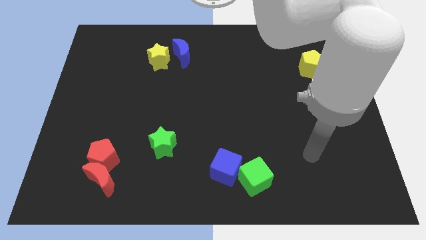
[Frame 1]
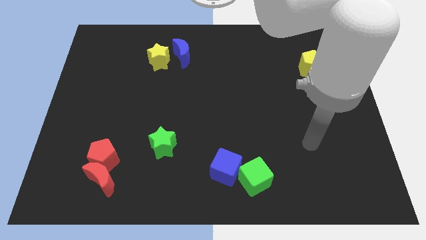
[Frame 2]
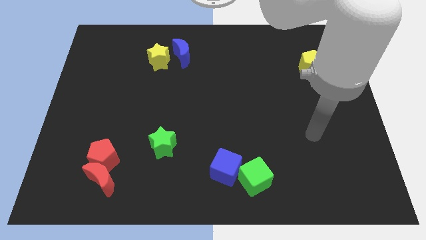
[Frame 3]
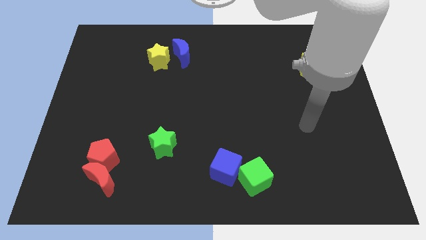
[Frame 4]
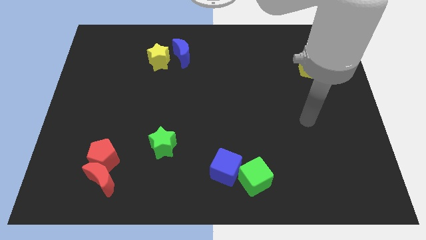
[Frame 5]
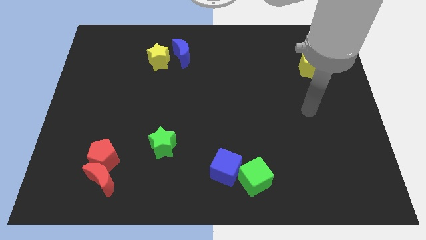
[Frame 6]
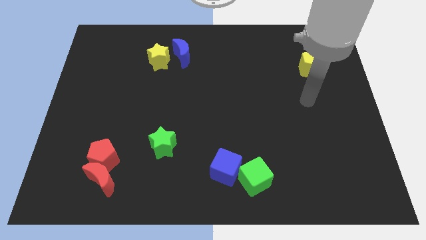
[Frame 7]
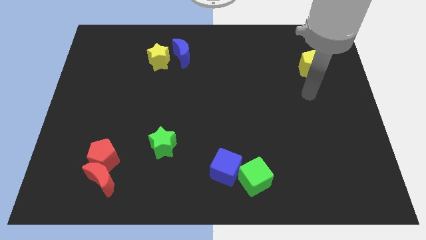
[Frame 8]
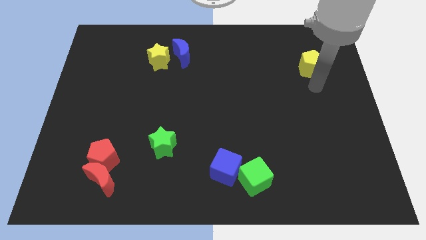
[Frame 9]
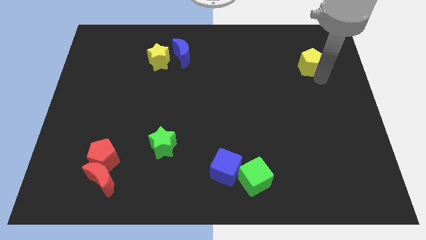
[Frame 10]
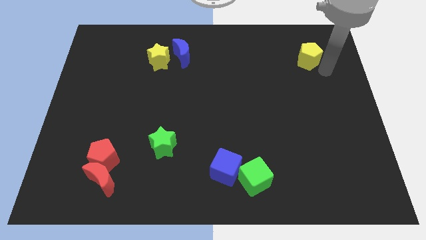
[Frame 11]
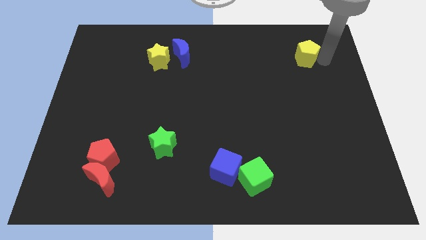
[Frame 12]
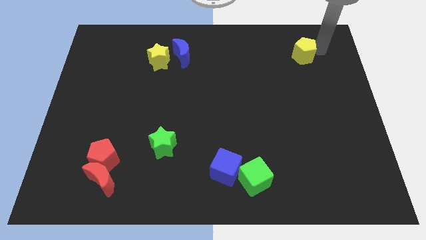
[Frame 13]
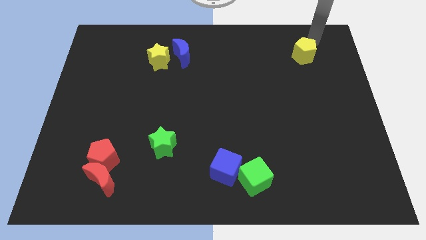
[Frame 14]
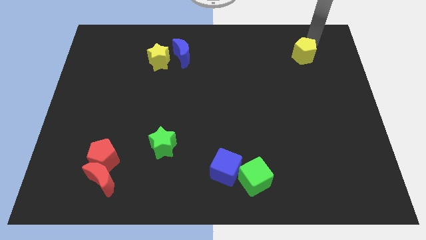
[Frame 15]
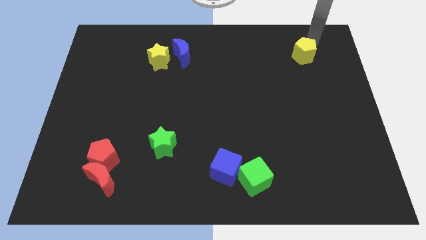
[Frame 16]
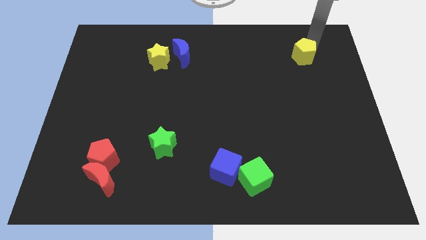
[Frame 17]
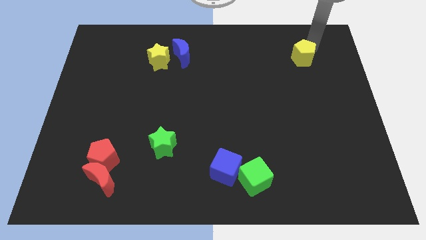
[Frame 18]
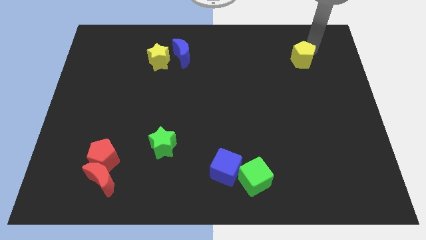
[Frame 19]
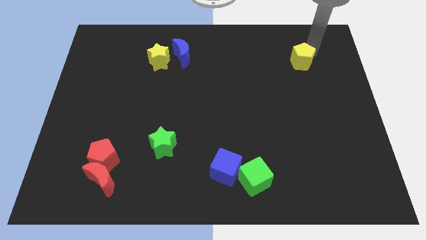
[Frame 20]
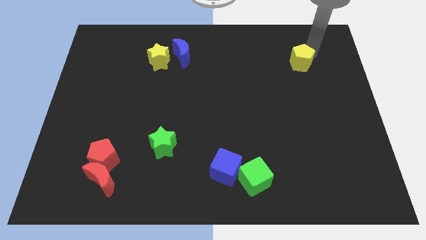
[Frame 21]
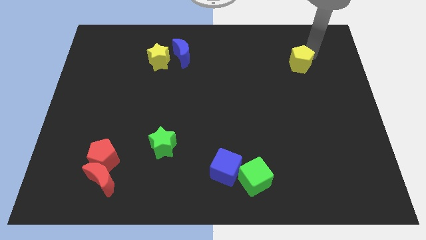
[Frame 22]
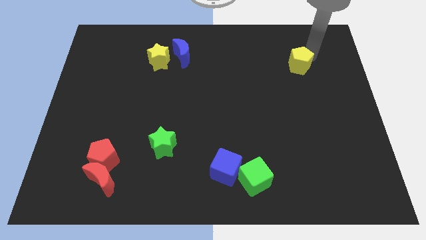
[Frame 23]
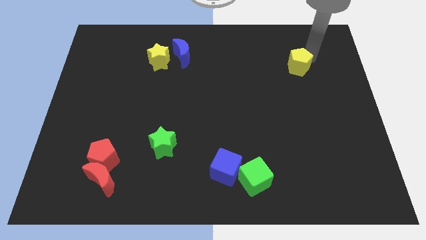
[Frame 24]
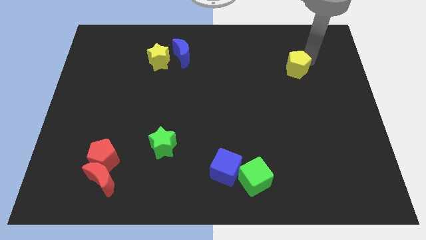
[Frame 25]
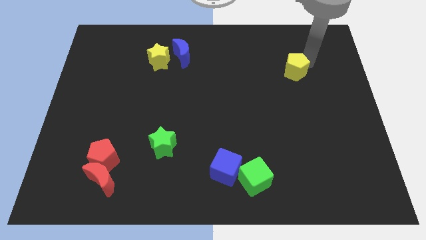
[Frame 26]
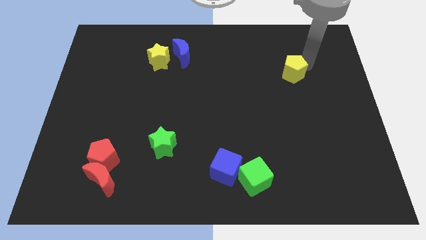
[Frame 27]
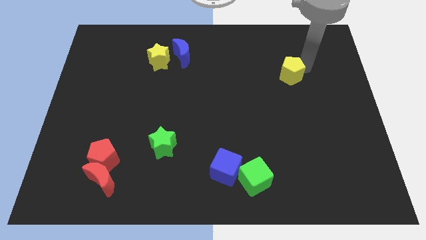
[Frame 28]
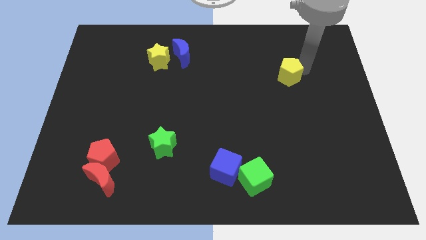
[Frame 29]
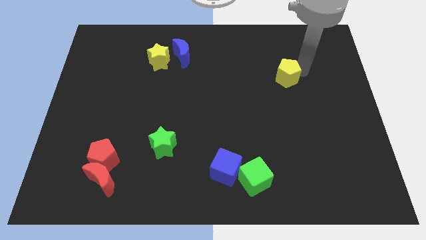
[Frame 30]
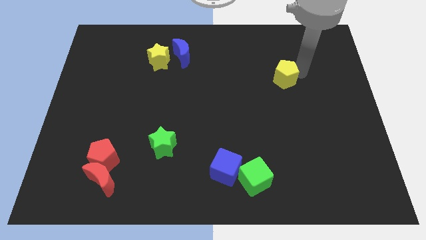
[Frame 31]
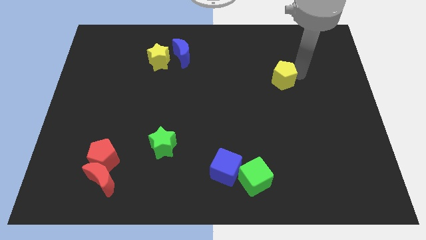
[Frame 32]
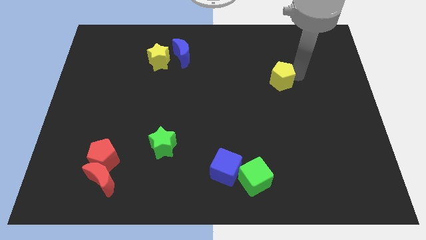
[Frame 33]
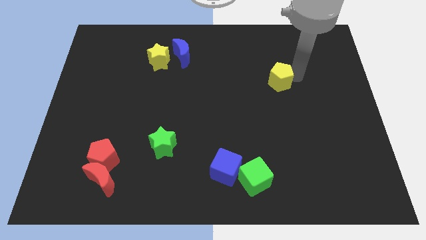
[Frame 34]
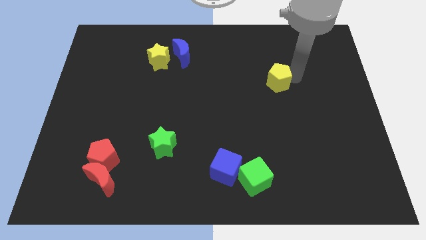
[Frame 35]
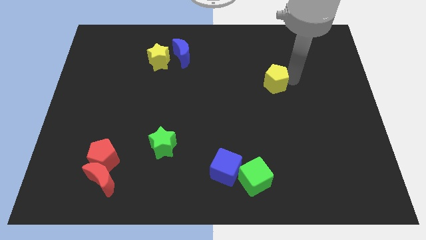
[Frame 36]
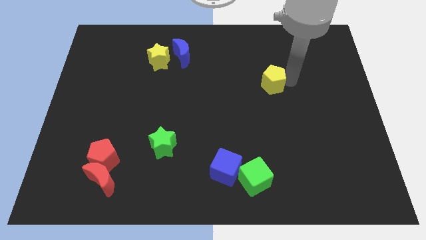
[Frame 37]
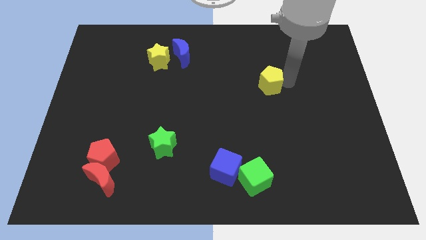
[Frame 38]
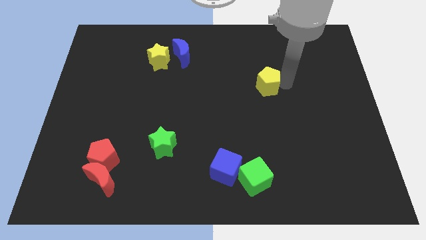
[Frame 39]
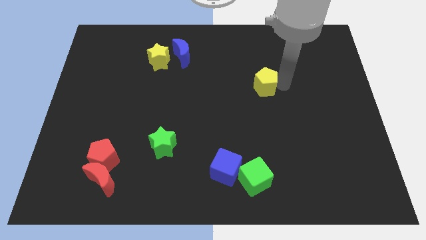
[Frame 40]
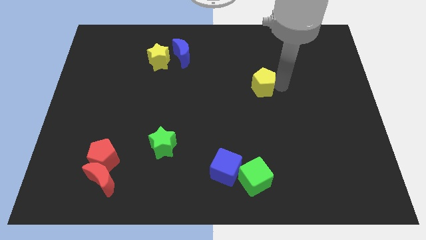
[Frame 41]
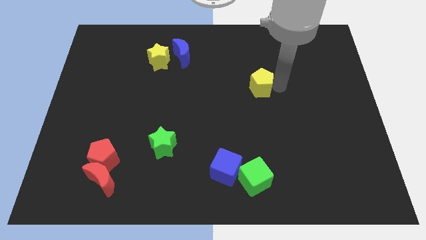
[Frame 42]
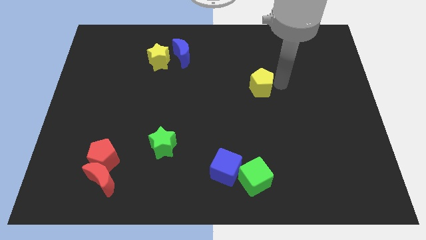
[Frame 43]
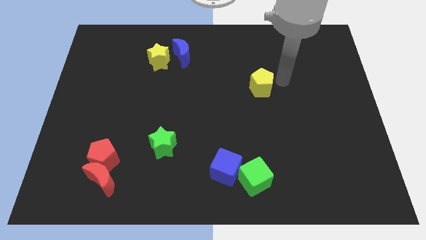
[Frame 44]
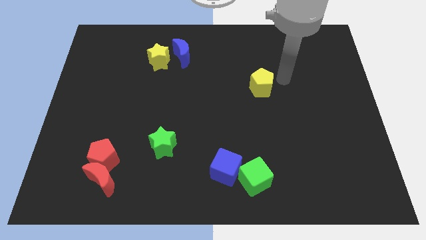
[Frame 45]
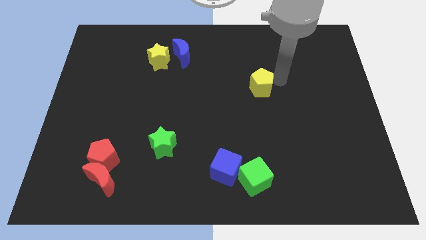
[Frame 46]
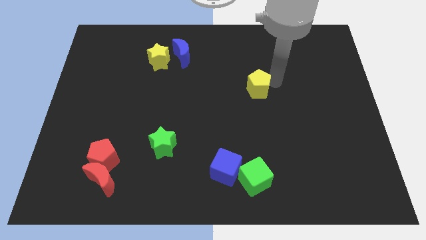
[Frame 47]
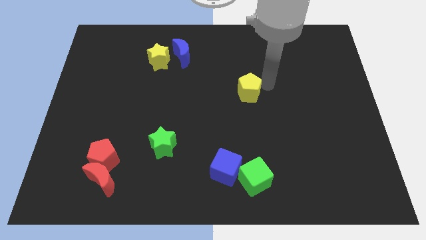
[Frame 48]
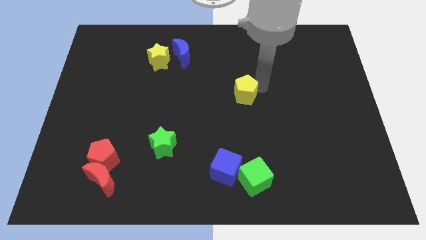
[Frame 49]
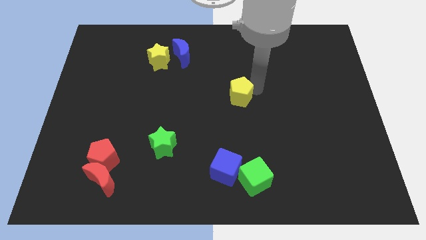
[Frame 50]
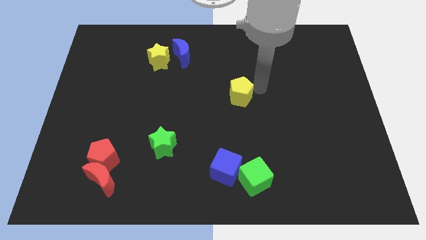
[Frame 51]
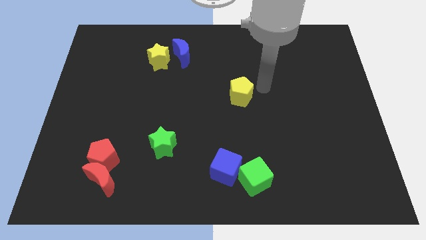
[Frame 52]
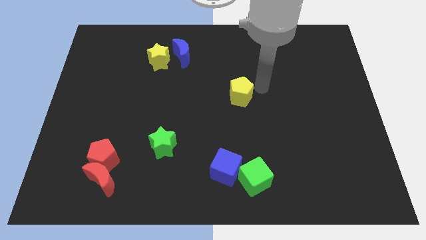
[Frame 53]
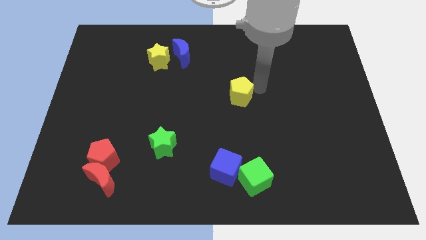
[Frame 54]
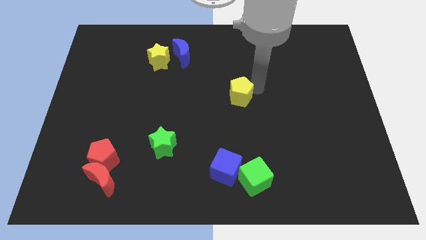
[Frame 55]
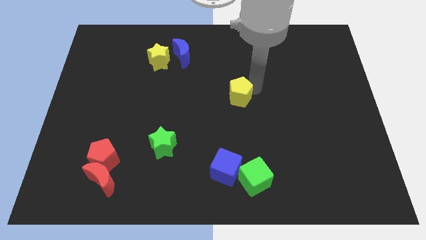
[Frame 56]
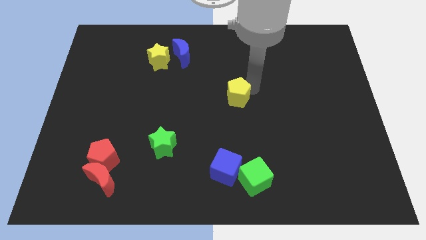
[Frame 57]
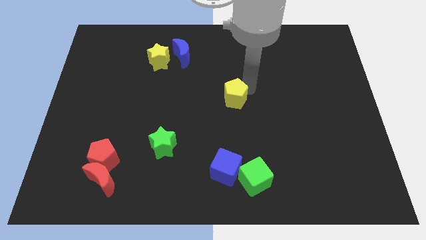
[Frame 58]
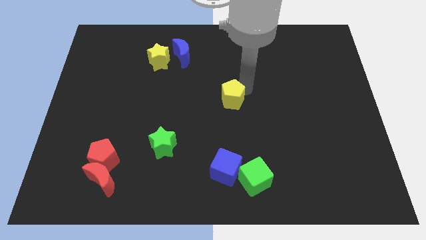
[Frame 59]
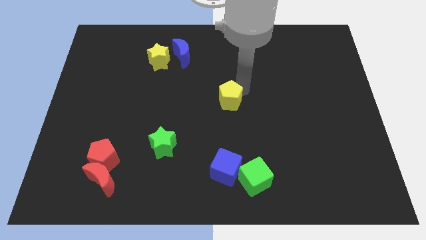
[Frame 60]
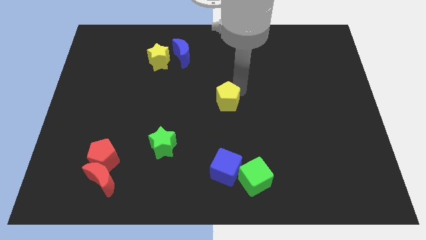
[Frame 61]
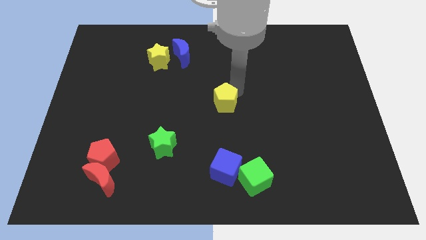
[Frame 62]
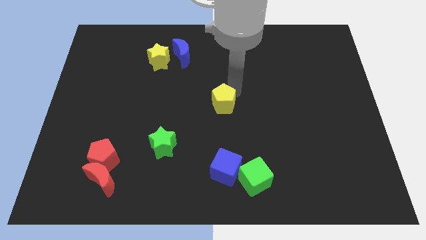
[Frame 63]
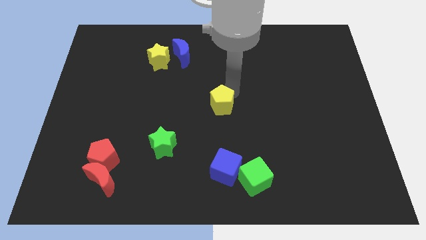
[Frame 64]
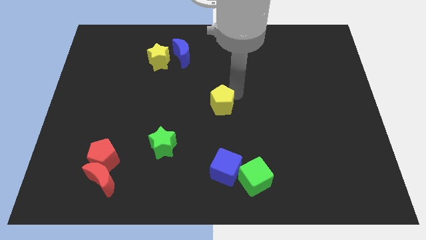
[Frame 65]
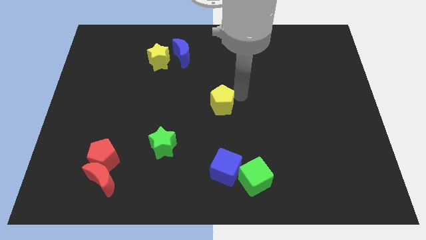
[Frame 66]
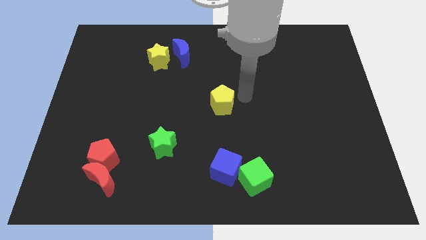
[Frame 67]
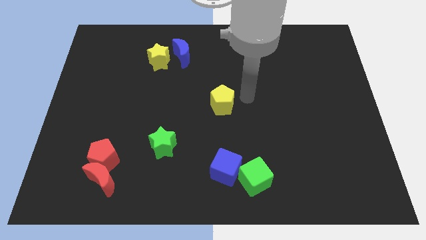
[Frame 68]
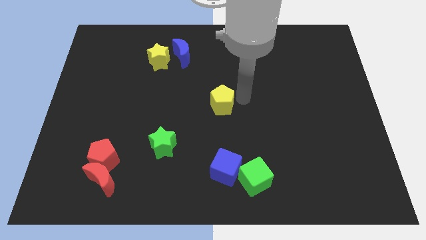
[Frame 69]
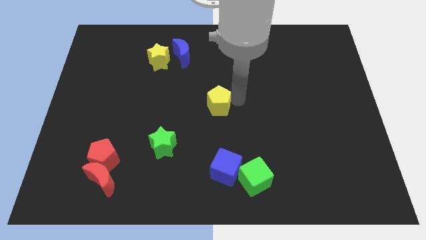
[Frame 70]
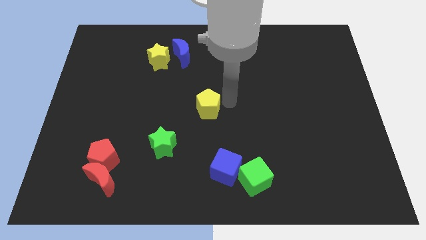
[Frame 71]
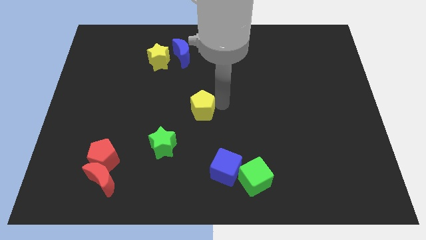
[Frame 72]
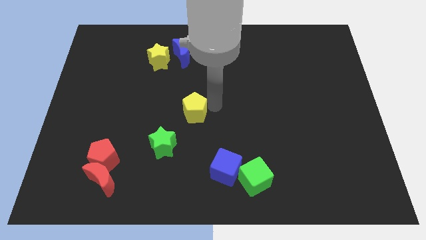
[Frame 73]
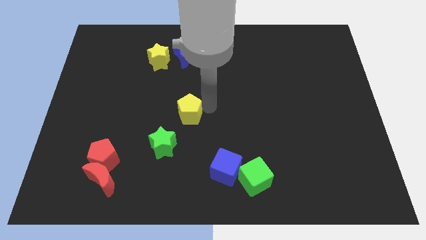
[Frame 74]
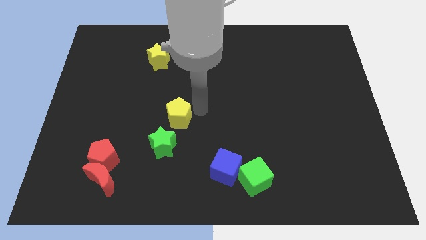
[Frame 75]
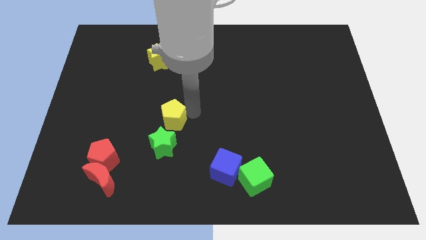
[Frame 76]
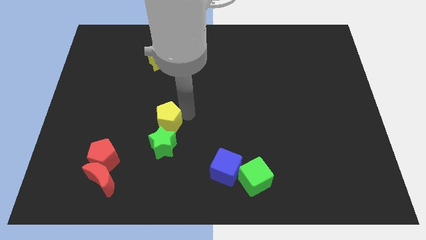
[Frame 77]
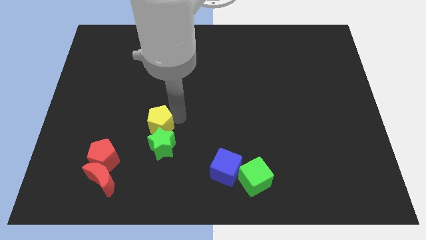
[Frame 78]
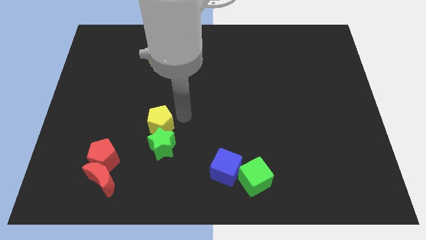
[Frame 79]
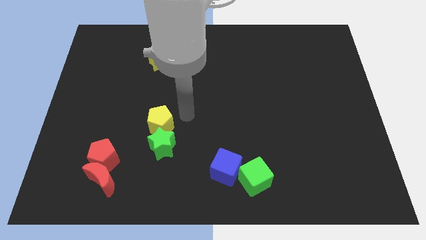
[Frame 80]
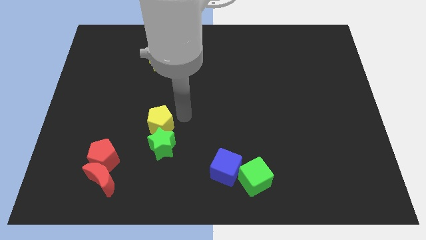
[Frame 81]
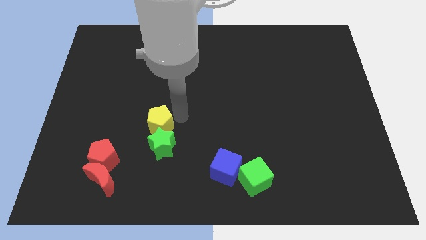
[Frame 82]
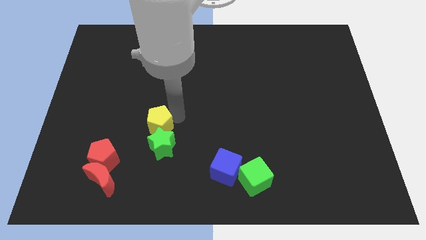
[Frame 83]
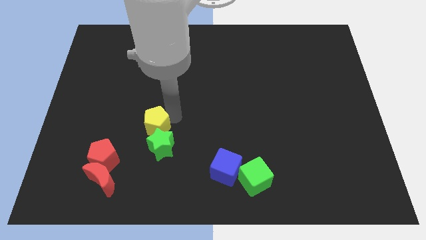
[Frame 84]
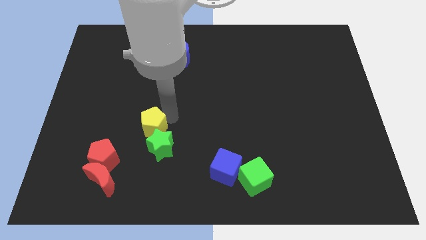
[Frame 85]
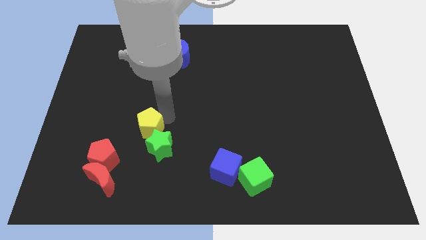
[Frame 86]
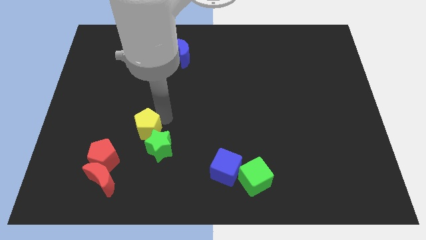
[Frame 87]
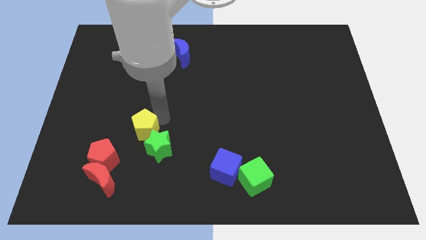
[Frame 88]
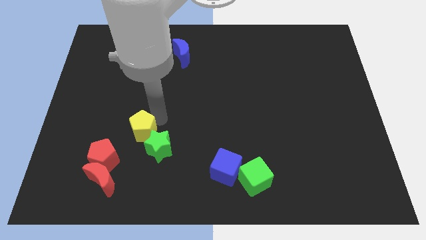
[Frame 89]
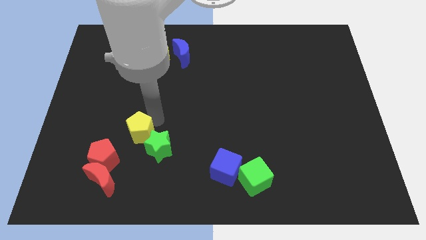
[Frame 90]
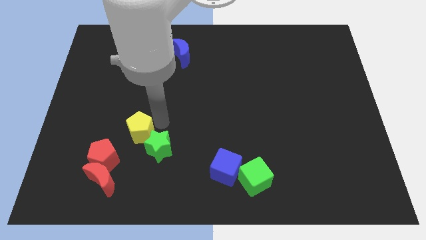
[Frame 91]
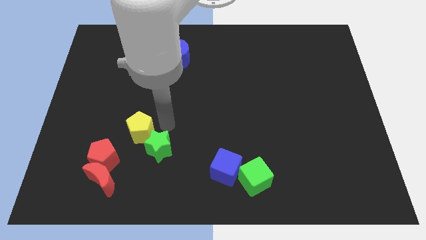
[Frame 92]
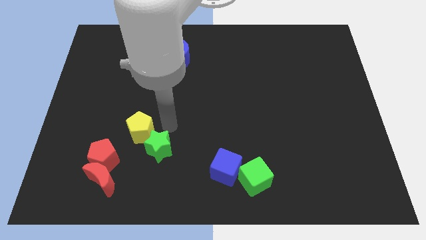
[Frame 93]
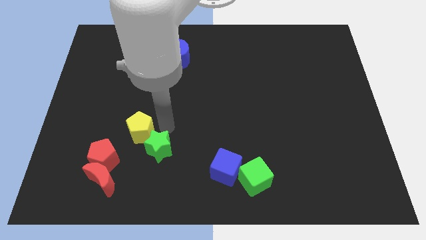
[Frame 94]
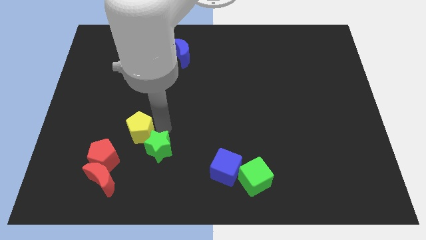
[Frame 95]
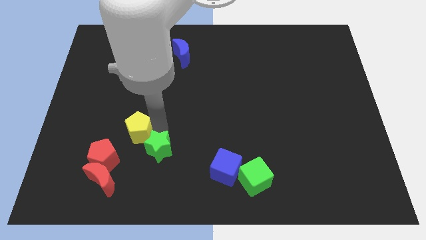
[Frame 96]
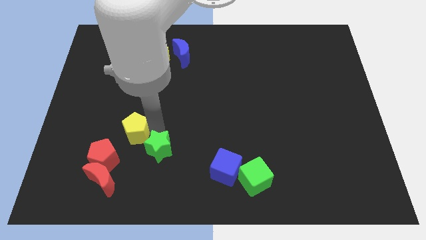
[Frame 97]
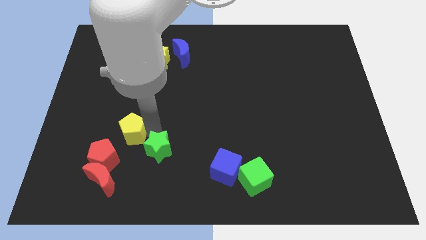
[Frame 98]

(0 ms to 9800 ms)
move the yellow pentagon to the top side of the red moon
